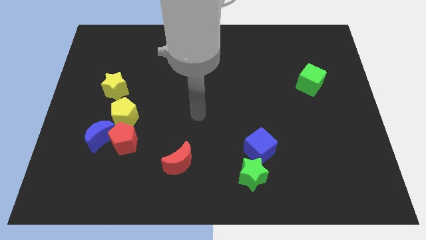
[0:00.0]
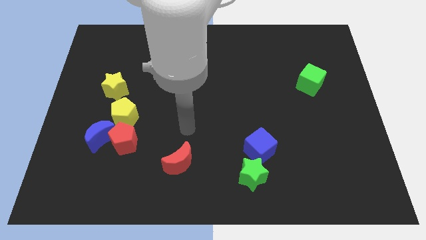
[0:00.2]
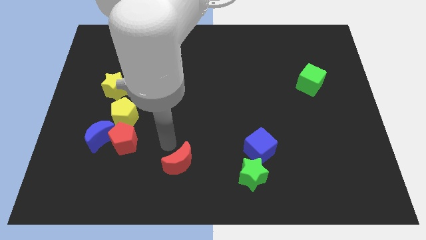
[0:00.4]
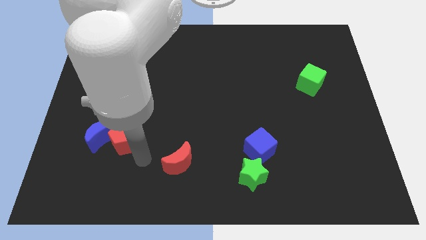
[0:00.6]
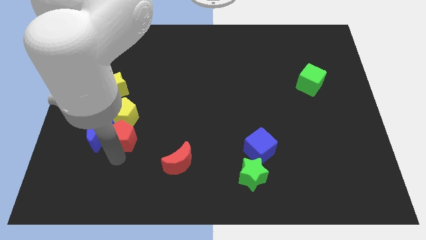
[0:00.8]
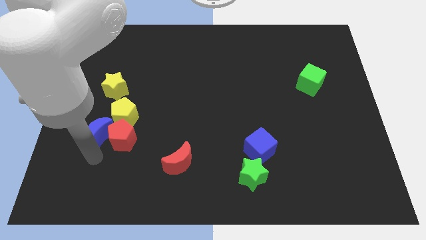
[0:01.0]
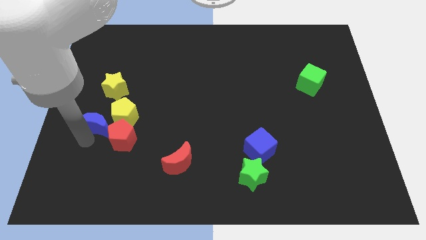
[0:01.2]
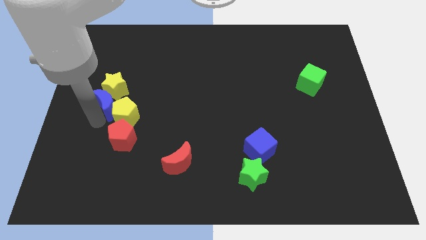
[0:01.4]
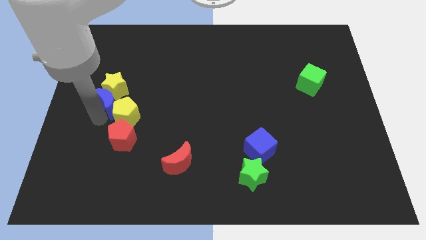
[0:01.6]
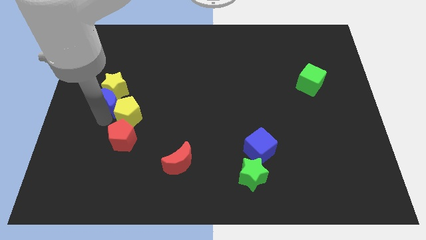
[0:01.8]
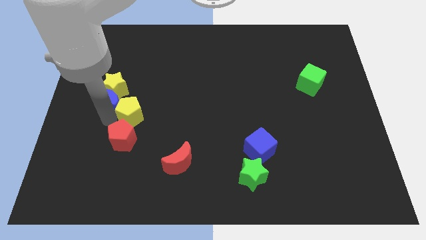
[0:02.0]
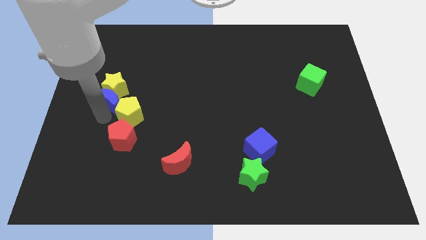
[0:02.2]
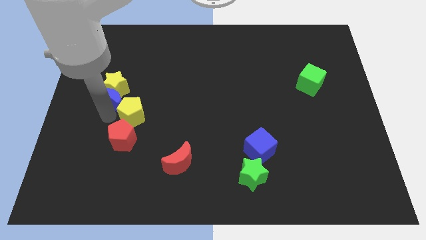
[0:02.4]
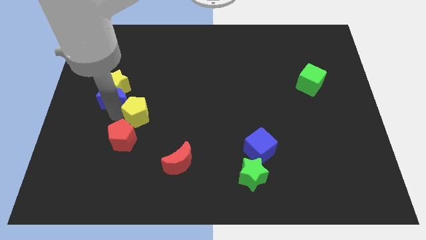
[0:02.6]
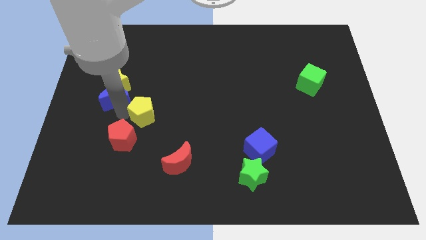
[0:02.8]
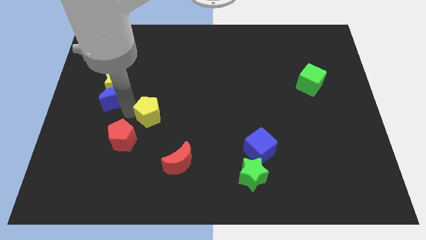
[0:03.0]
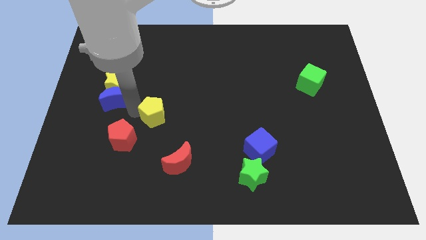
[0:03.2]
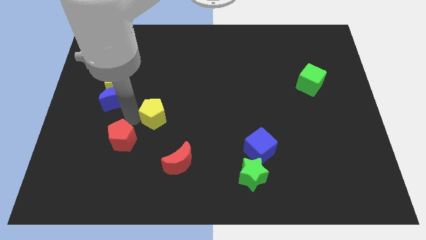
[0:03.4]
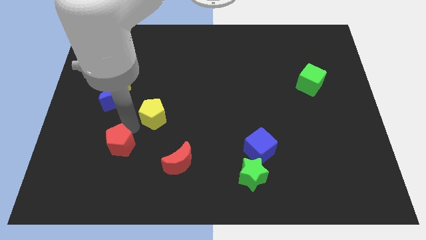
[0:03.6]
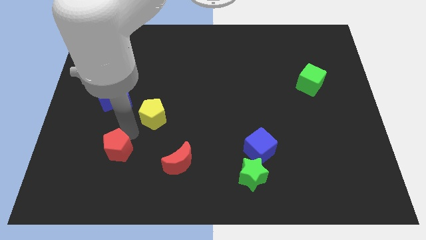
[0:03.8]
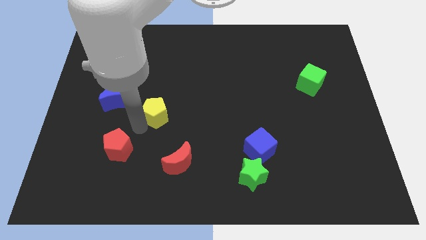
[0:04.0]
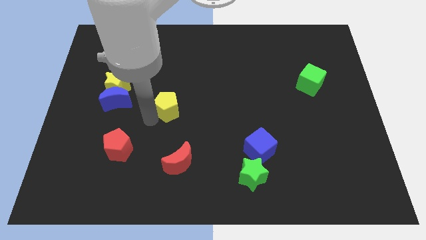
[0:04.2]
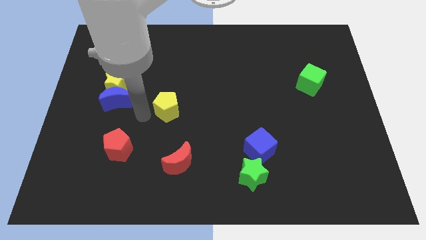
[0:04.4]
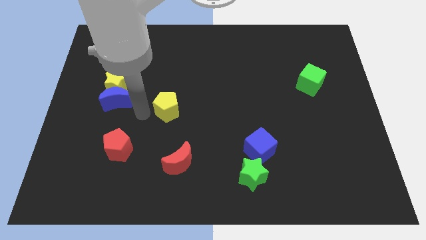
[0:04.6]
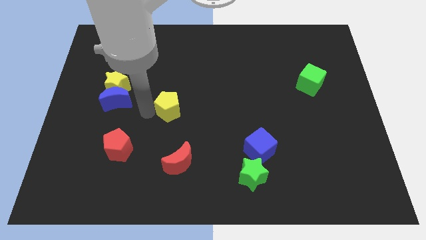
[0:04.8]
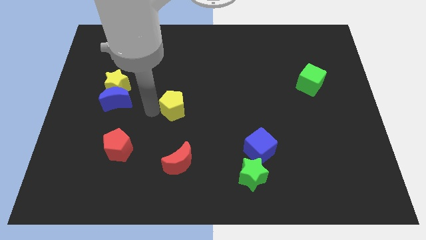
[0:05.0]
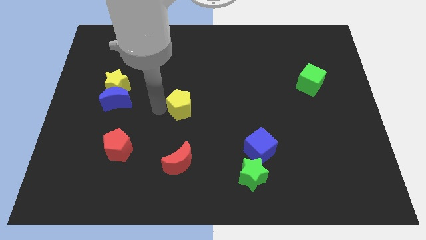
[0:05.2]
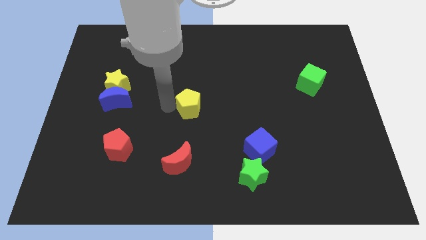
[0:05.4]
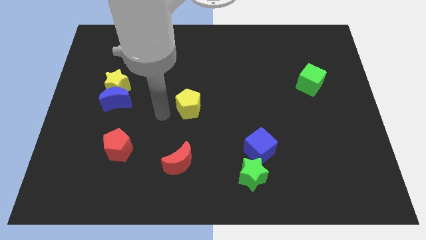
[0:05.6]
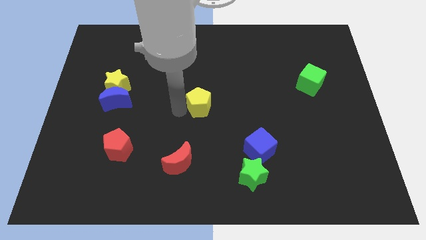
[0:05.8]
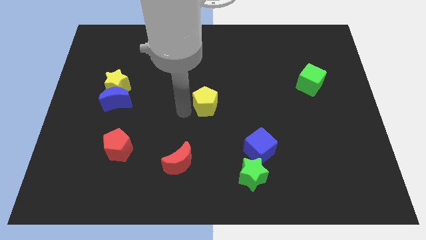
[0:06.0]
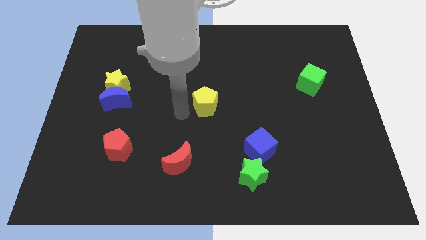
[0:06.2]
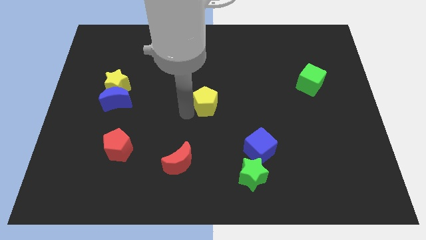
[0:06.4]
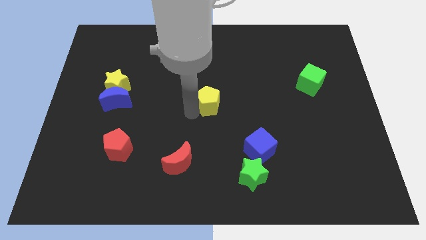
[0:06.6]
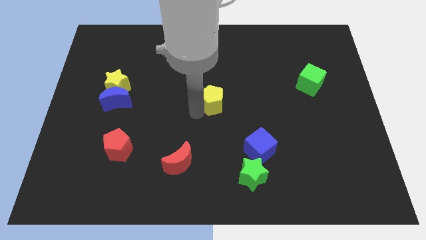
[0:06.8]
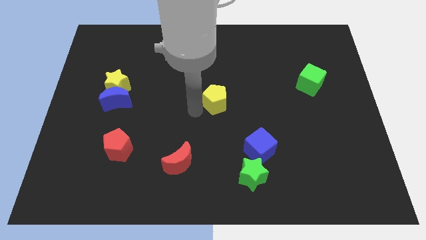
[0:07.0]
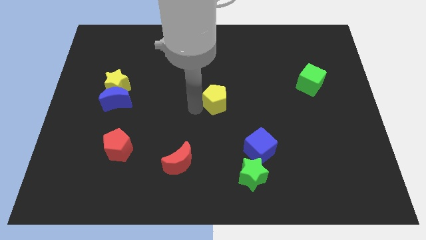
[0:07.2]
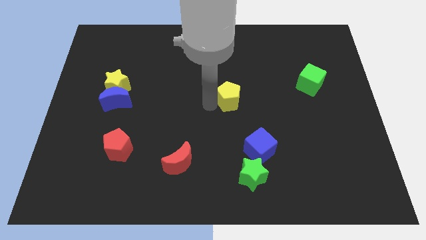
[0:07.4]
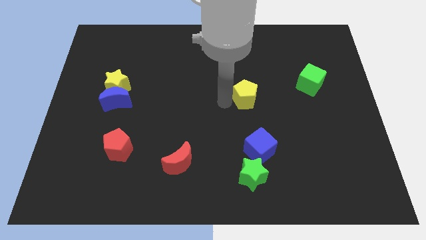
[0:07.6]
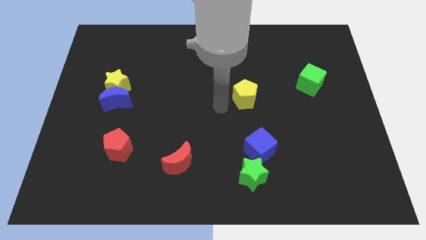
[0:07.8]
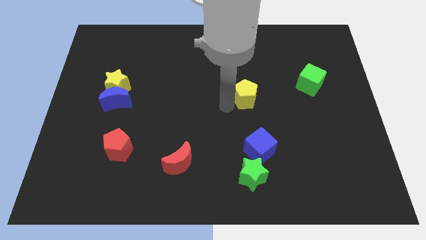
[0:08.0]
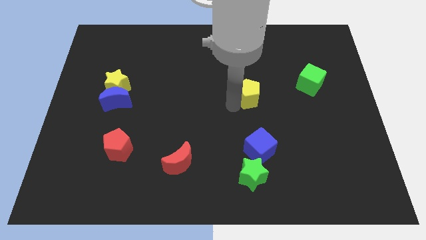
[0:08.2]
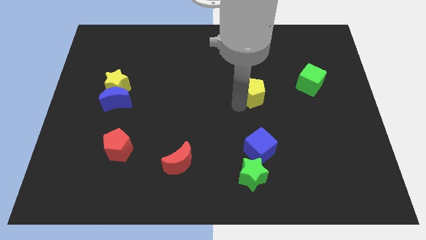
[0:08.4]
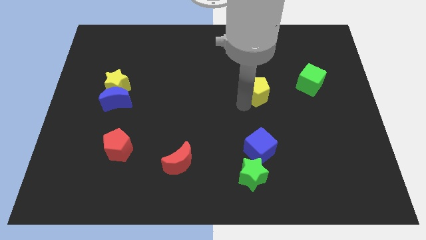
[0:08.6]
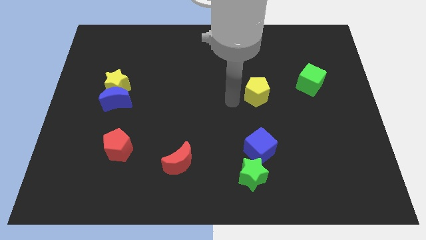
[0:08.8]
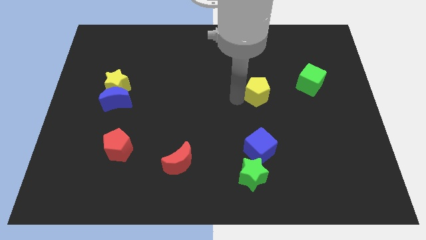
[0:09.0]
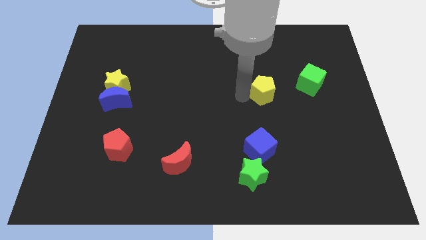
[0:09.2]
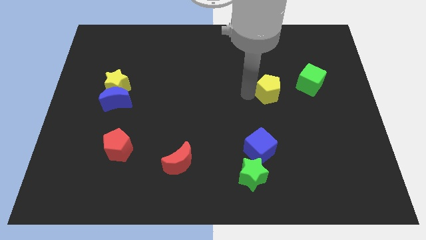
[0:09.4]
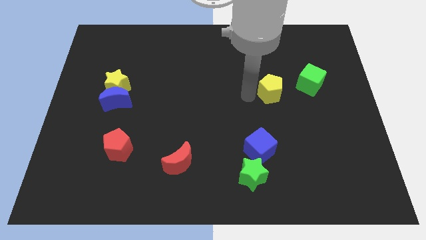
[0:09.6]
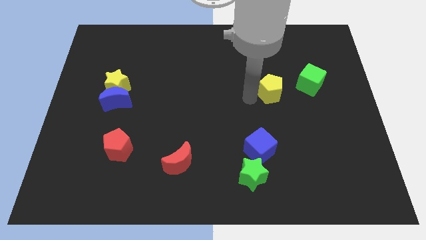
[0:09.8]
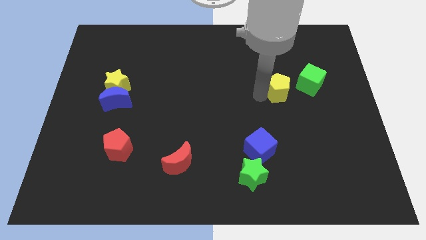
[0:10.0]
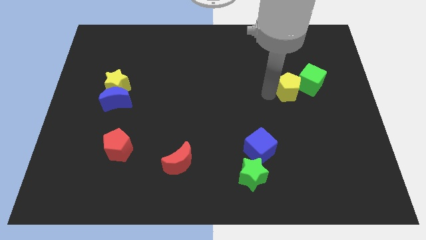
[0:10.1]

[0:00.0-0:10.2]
slide the yellow pentagon towards the green cube

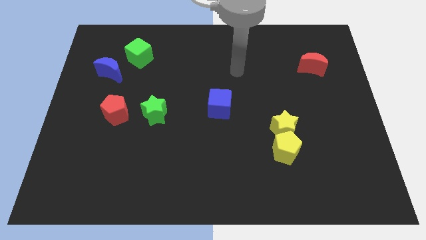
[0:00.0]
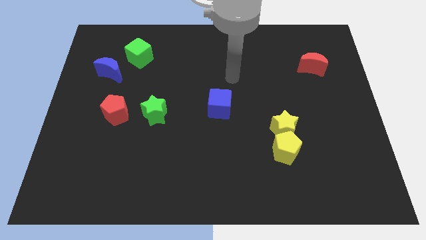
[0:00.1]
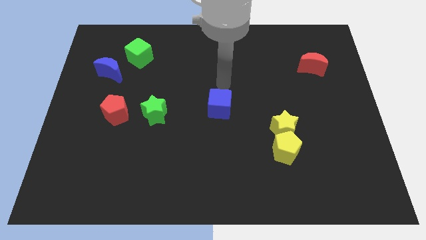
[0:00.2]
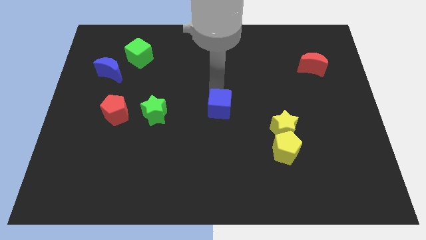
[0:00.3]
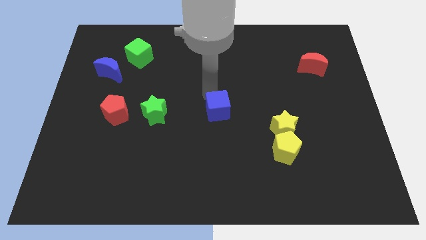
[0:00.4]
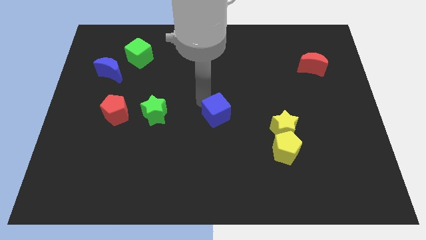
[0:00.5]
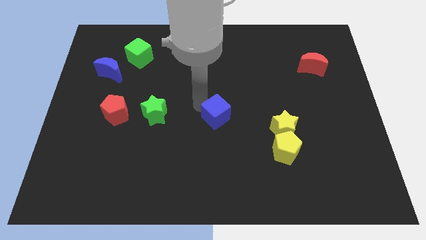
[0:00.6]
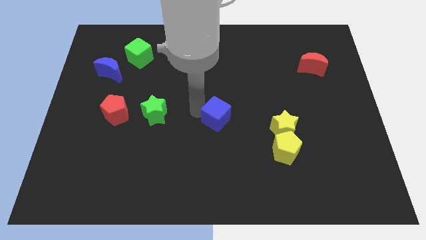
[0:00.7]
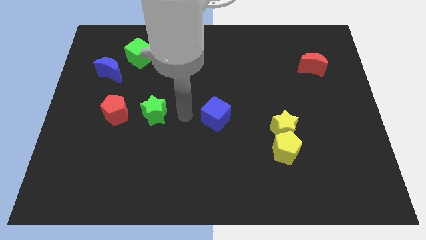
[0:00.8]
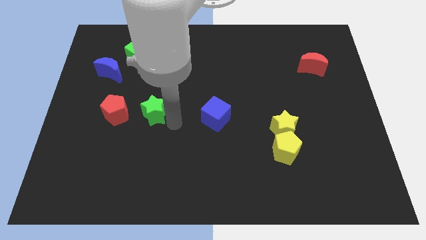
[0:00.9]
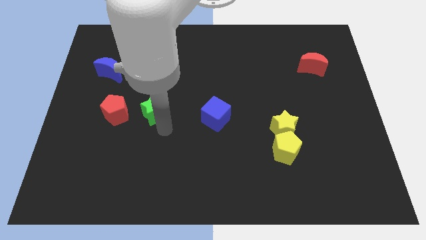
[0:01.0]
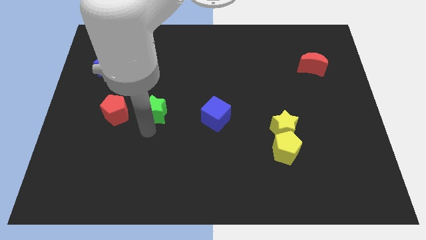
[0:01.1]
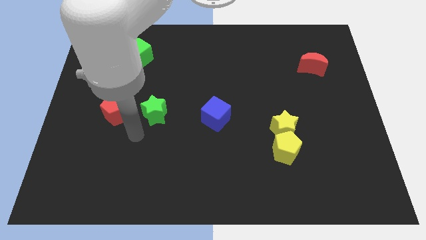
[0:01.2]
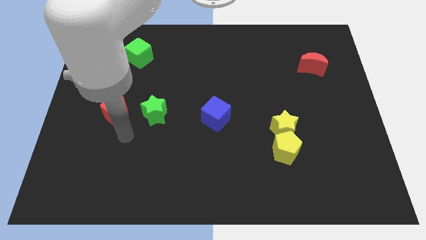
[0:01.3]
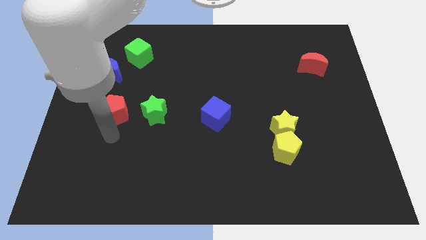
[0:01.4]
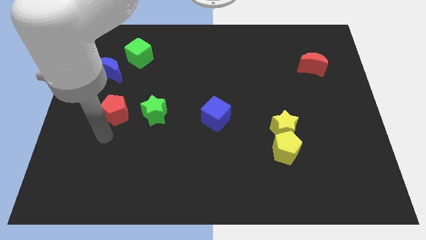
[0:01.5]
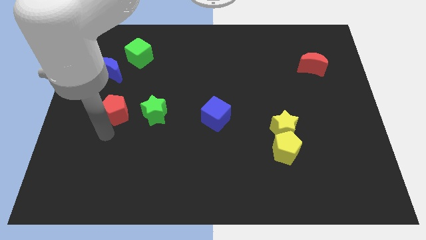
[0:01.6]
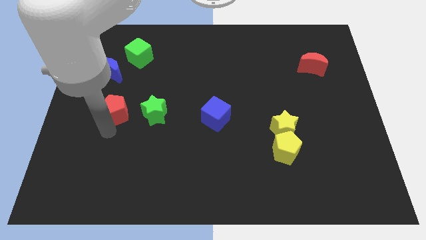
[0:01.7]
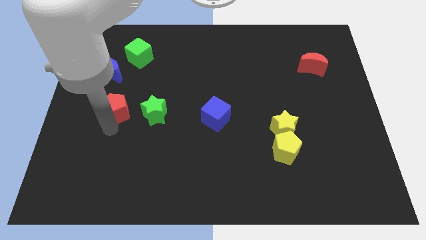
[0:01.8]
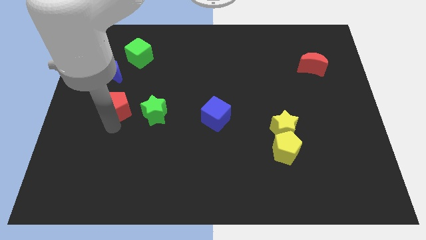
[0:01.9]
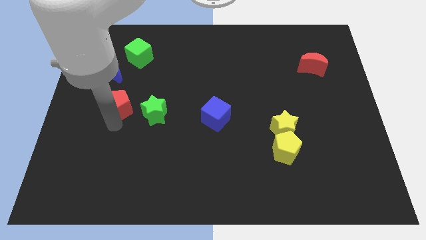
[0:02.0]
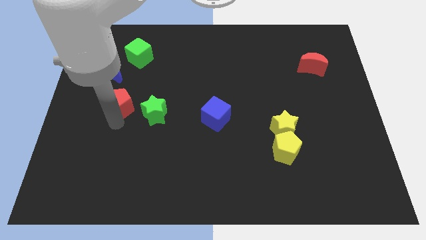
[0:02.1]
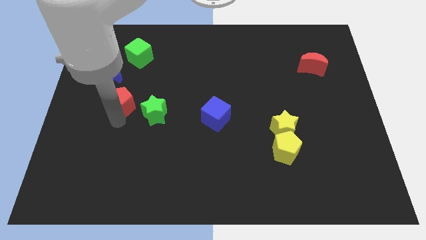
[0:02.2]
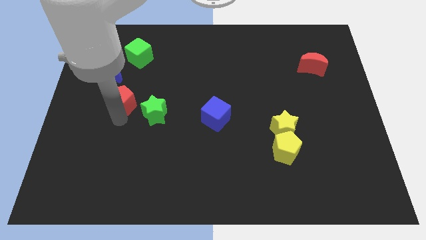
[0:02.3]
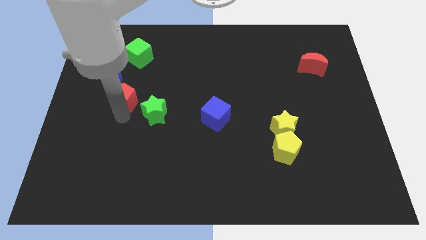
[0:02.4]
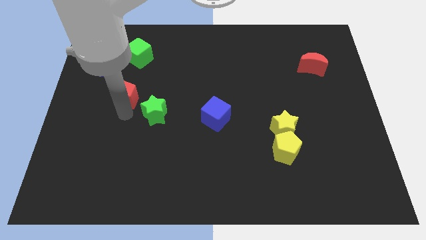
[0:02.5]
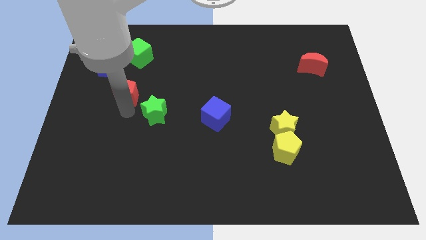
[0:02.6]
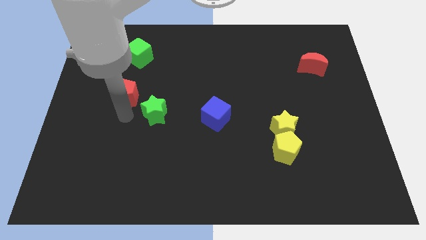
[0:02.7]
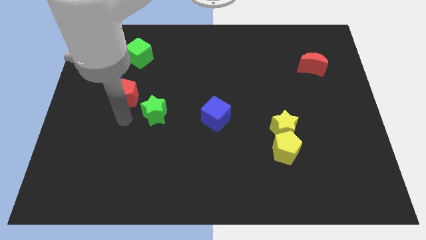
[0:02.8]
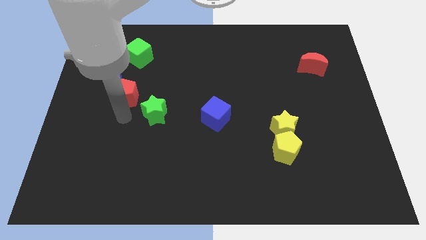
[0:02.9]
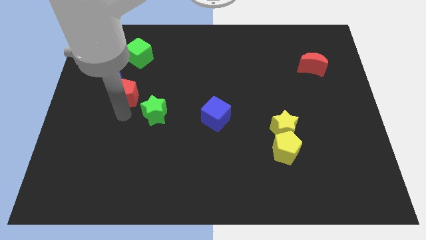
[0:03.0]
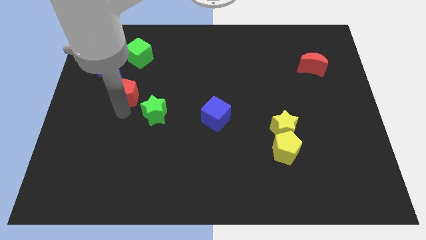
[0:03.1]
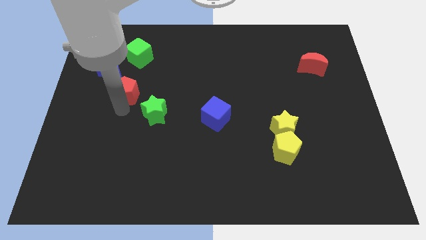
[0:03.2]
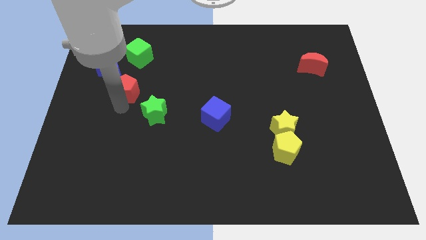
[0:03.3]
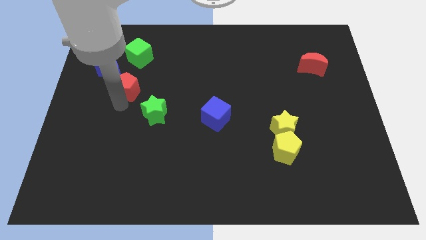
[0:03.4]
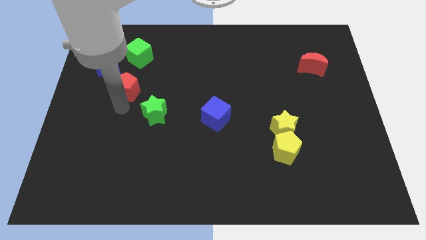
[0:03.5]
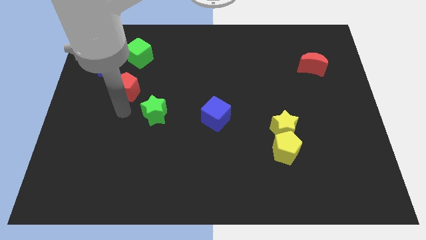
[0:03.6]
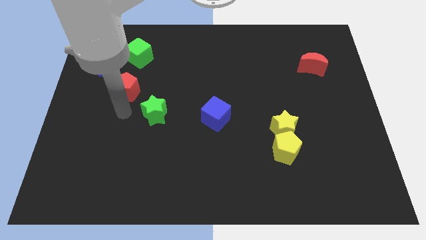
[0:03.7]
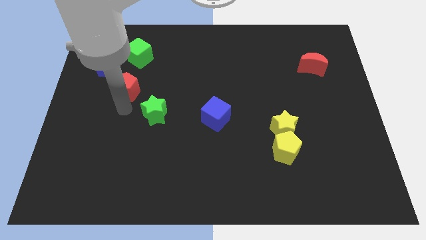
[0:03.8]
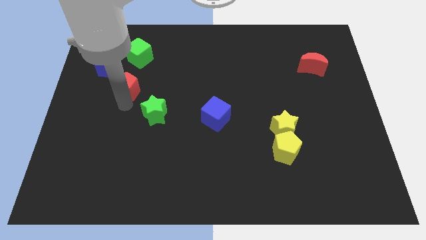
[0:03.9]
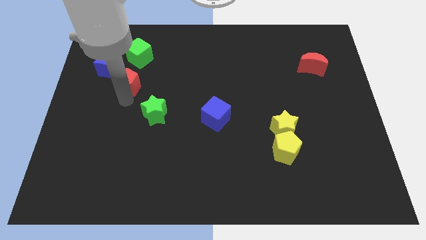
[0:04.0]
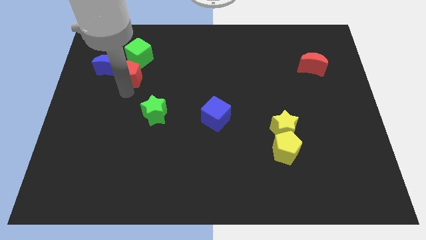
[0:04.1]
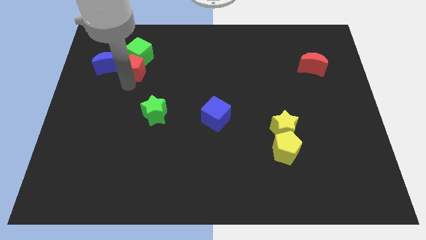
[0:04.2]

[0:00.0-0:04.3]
slide the red pentagon next to the green cube
